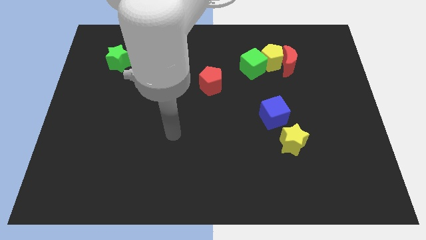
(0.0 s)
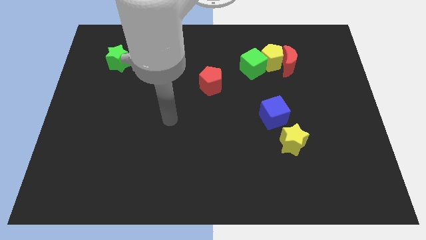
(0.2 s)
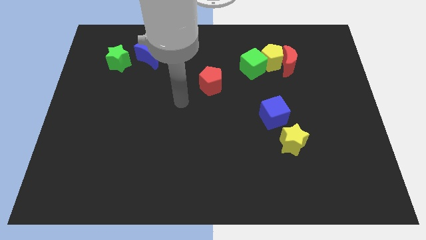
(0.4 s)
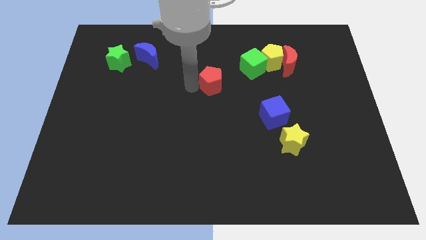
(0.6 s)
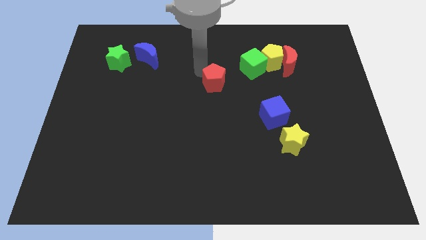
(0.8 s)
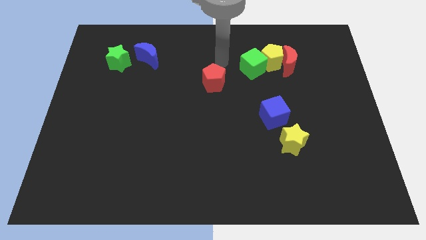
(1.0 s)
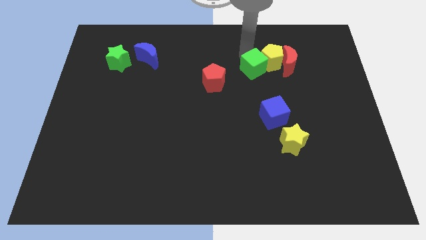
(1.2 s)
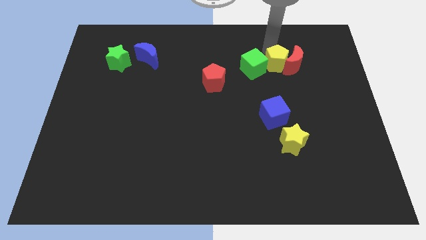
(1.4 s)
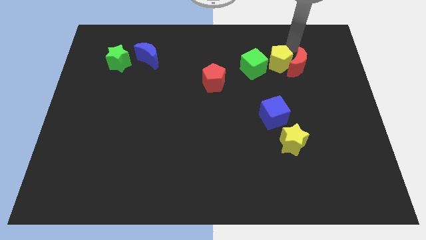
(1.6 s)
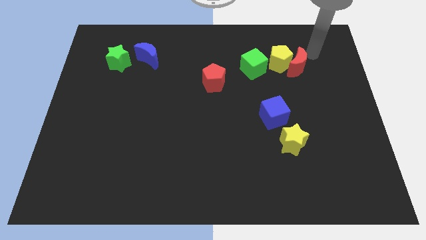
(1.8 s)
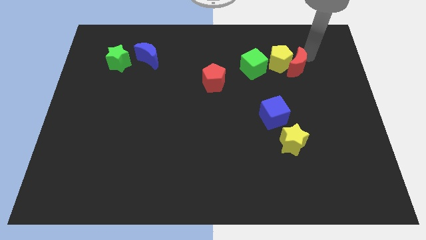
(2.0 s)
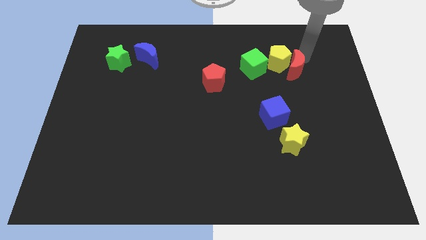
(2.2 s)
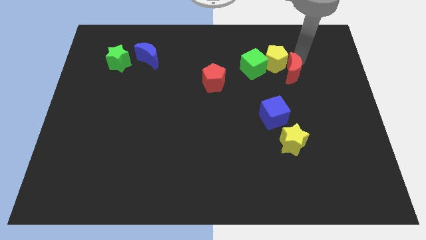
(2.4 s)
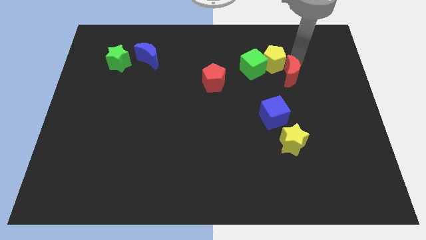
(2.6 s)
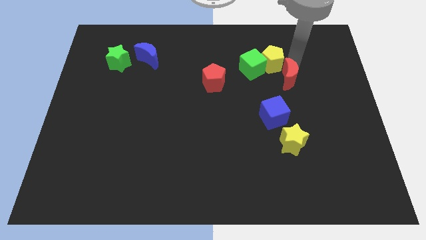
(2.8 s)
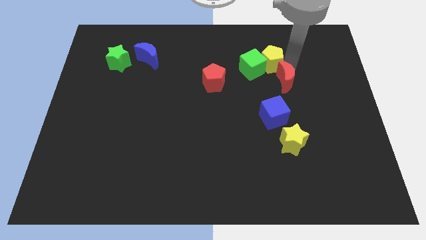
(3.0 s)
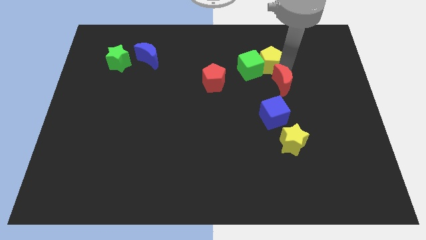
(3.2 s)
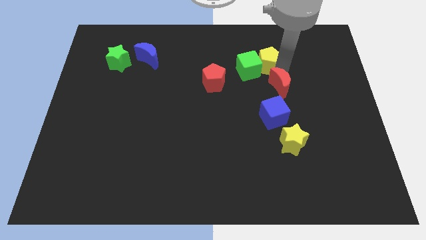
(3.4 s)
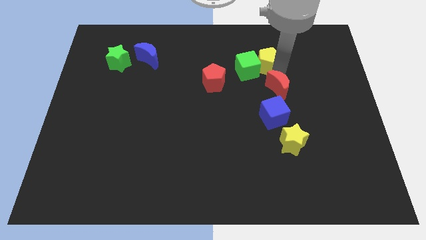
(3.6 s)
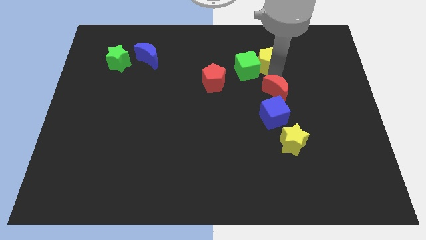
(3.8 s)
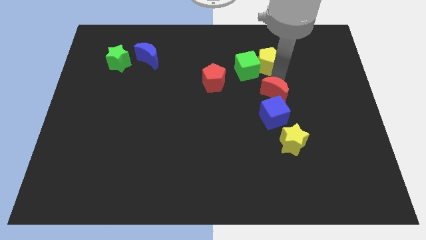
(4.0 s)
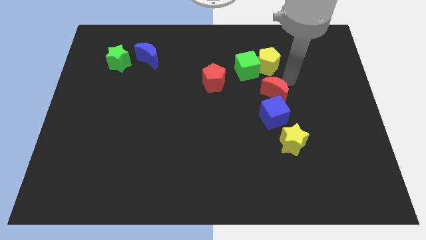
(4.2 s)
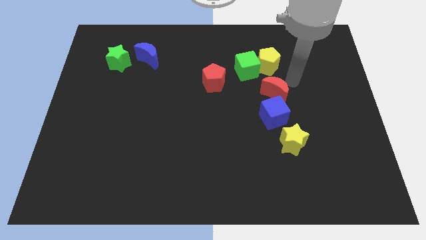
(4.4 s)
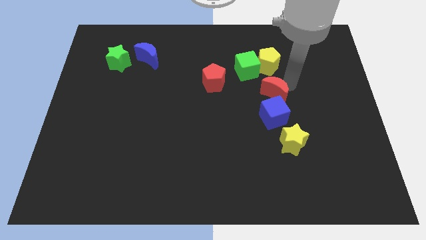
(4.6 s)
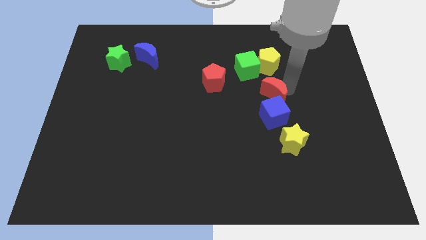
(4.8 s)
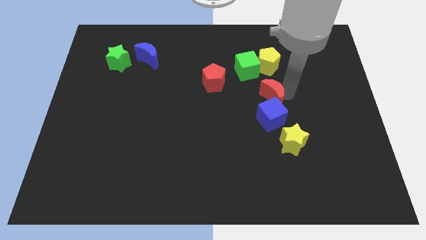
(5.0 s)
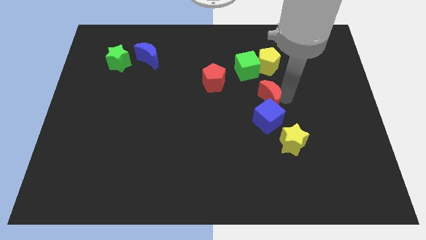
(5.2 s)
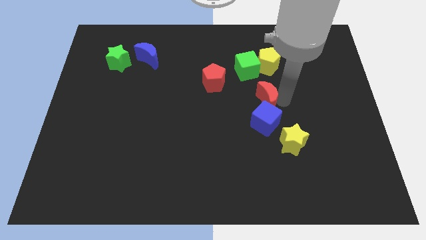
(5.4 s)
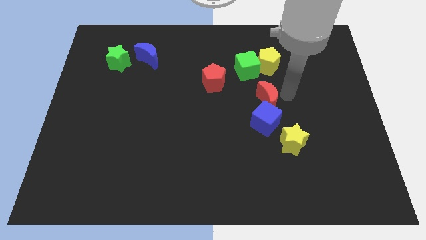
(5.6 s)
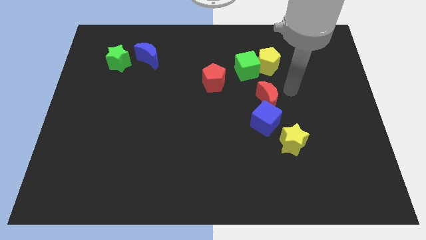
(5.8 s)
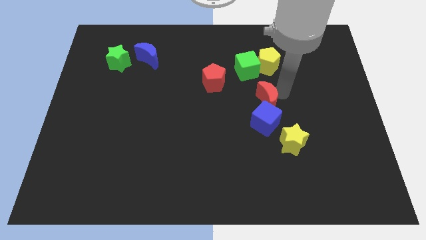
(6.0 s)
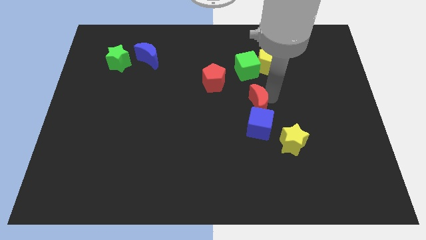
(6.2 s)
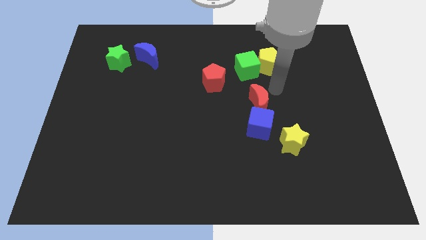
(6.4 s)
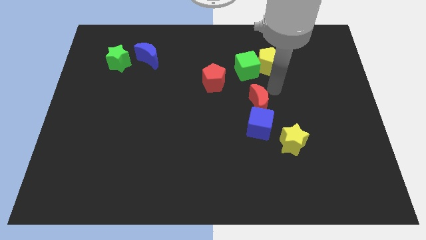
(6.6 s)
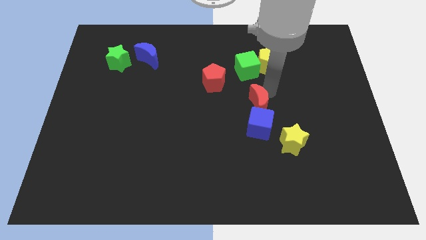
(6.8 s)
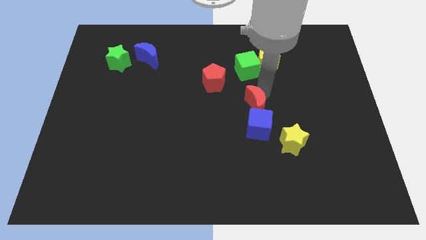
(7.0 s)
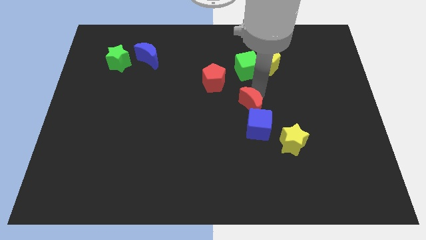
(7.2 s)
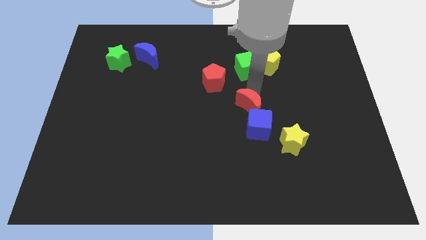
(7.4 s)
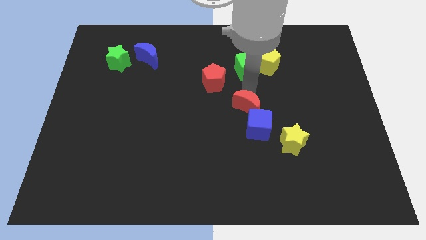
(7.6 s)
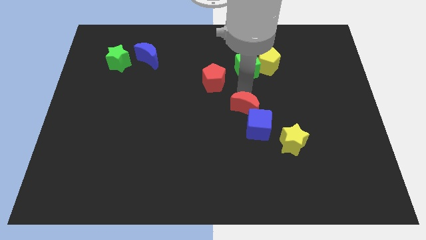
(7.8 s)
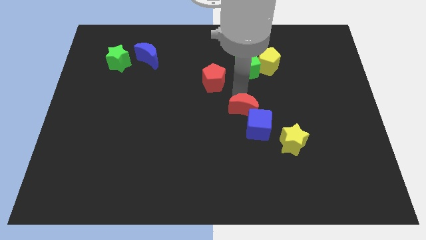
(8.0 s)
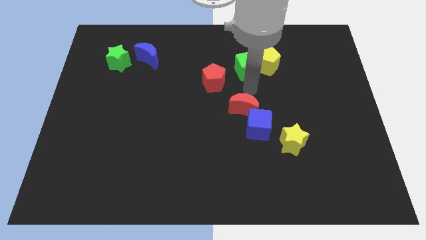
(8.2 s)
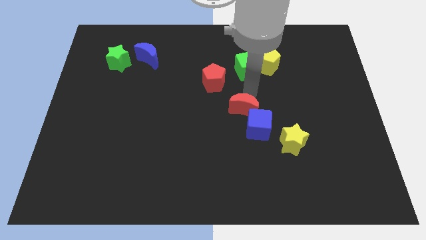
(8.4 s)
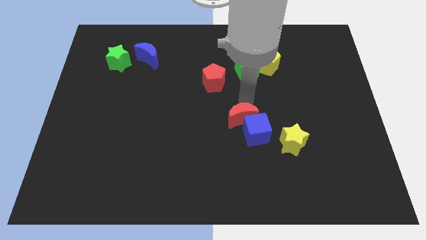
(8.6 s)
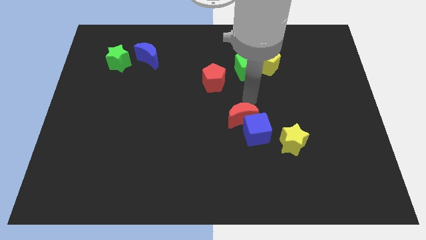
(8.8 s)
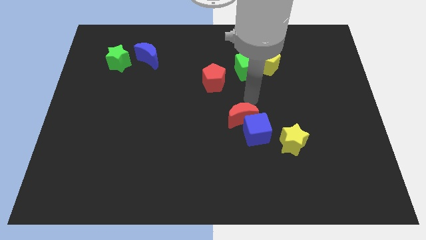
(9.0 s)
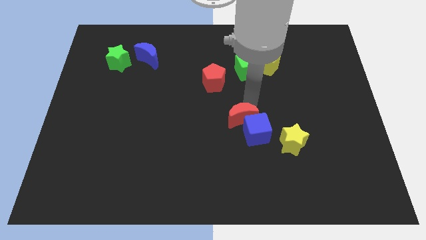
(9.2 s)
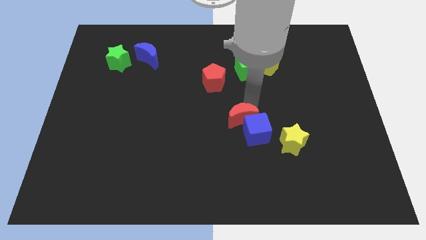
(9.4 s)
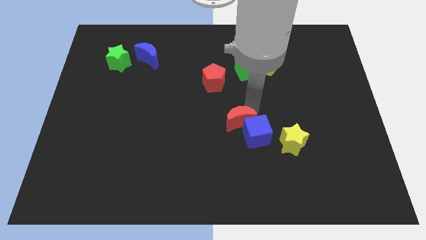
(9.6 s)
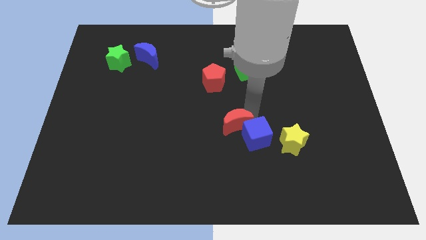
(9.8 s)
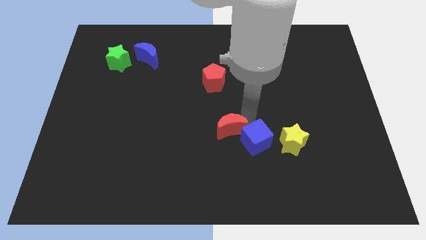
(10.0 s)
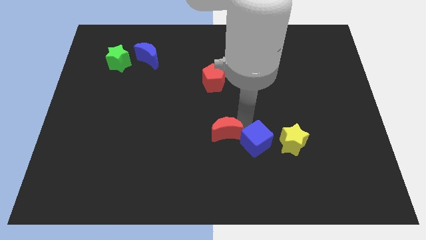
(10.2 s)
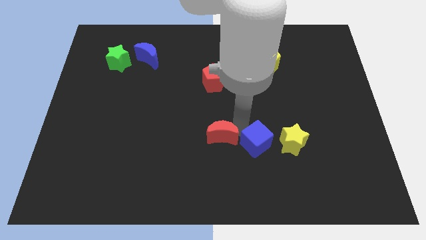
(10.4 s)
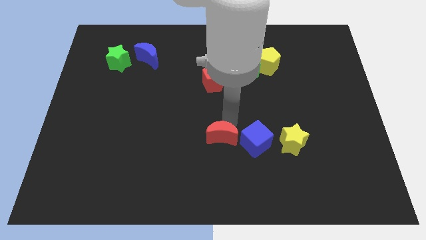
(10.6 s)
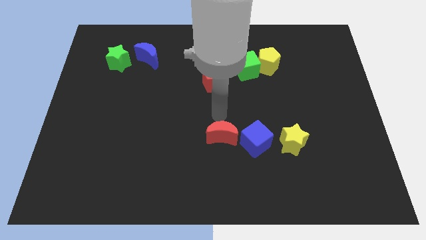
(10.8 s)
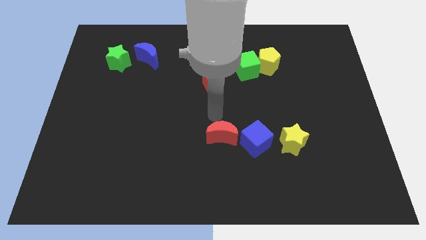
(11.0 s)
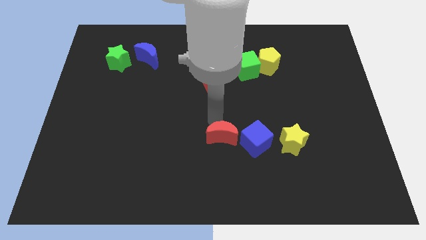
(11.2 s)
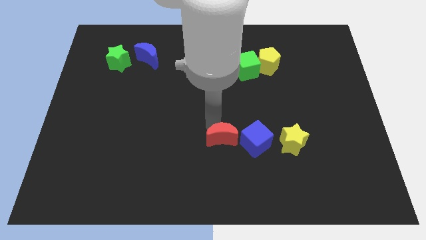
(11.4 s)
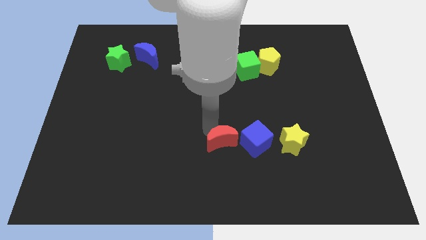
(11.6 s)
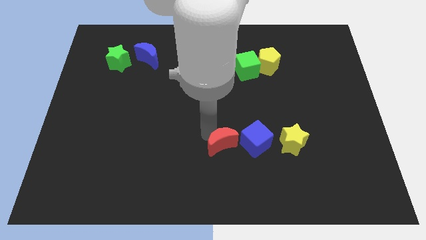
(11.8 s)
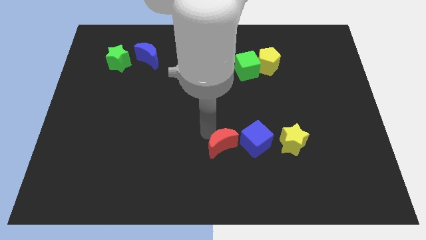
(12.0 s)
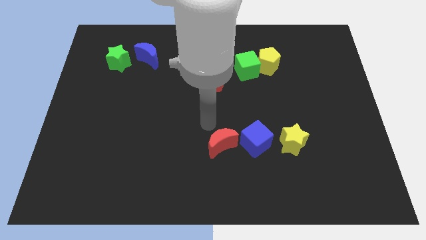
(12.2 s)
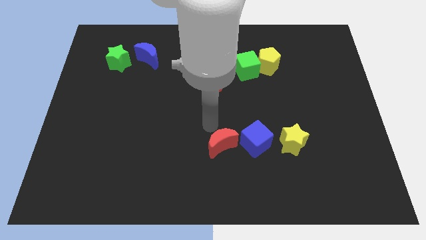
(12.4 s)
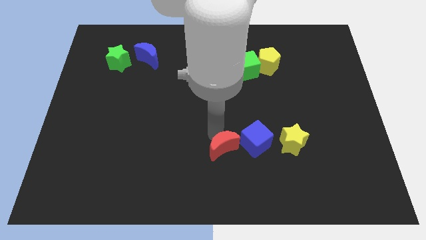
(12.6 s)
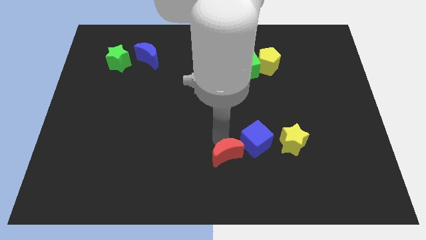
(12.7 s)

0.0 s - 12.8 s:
put the red moon to the bottom side
